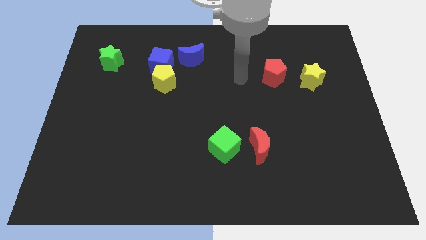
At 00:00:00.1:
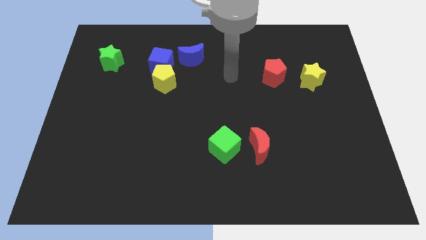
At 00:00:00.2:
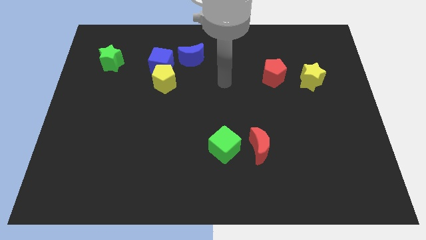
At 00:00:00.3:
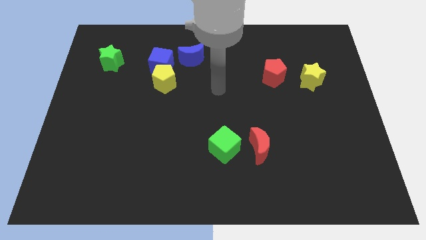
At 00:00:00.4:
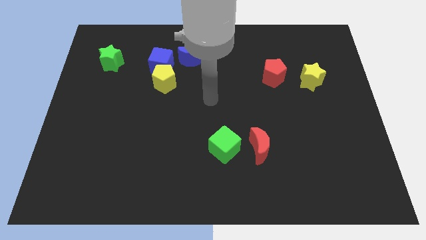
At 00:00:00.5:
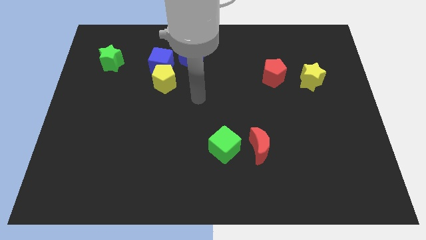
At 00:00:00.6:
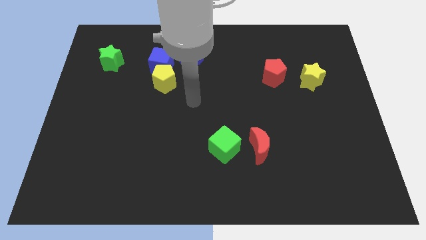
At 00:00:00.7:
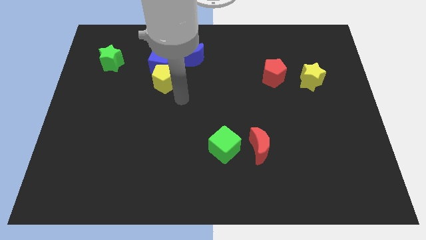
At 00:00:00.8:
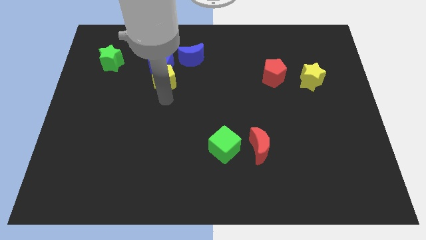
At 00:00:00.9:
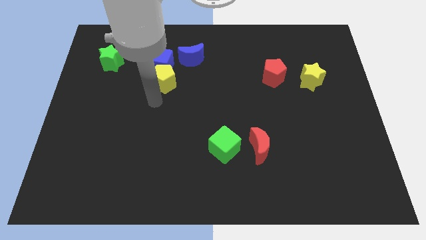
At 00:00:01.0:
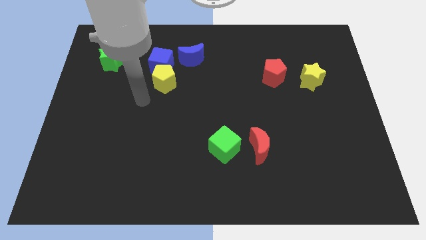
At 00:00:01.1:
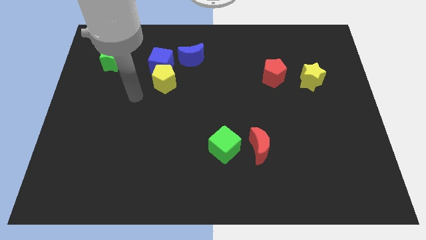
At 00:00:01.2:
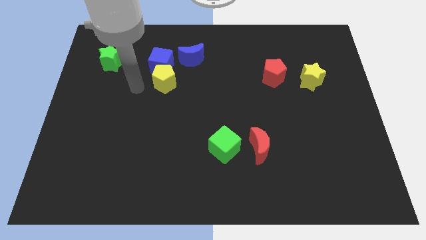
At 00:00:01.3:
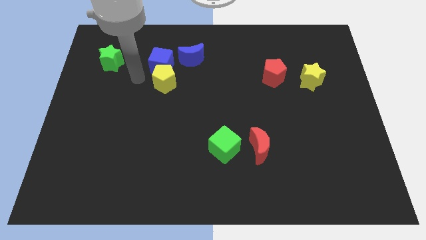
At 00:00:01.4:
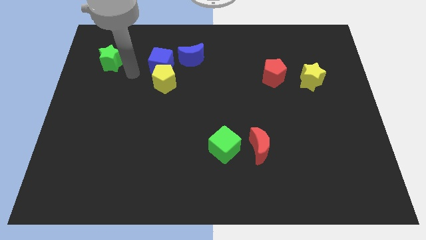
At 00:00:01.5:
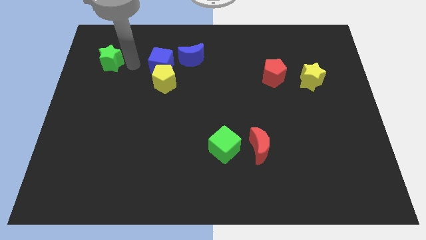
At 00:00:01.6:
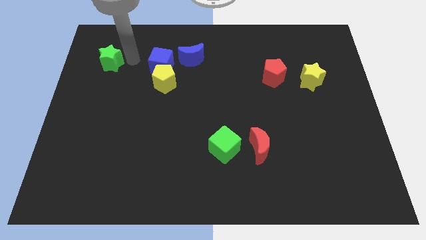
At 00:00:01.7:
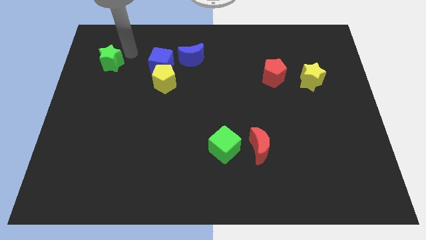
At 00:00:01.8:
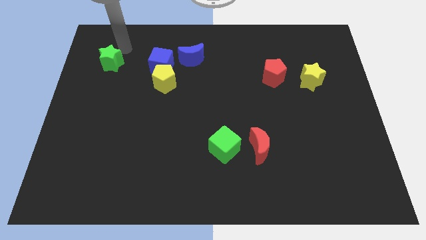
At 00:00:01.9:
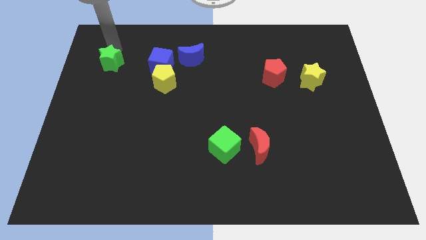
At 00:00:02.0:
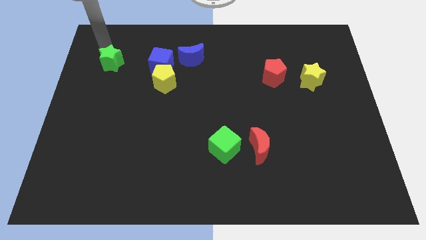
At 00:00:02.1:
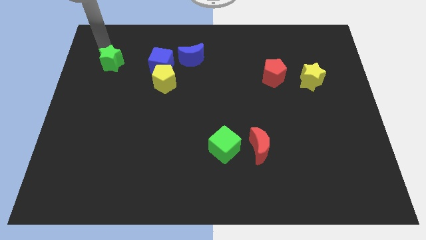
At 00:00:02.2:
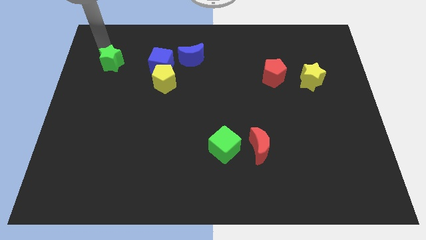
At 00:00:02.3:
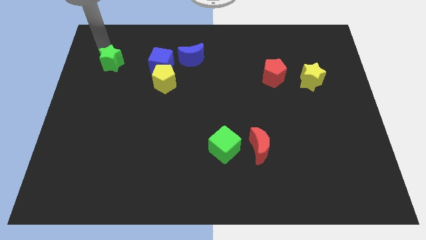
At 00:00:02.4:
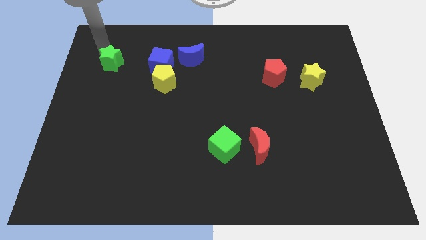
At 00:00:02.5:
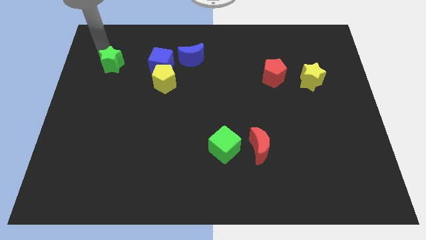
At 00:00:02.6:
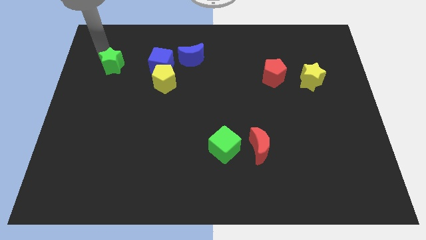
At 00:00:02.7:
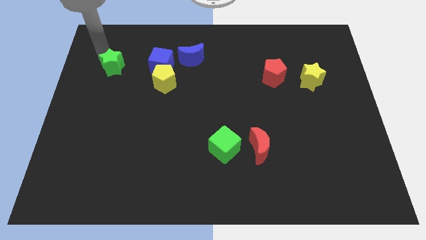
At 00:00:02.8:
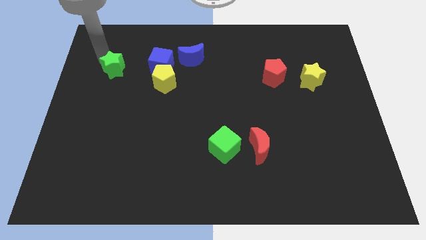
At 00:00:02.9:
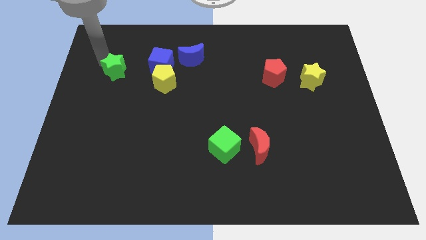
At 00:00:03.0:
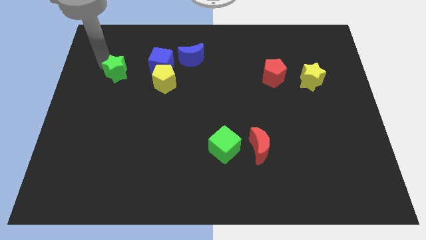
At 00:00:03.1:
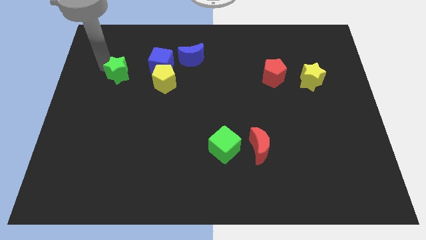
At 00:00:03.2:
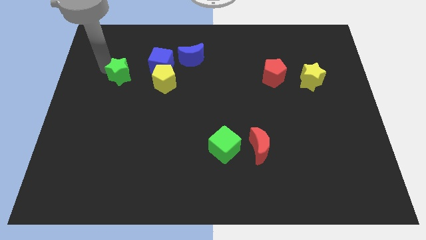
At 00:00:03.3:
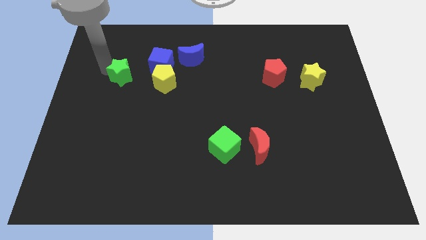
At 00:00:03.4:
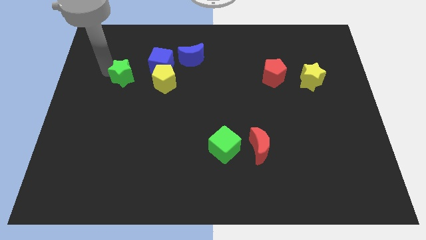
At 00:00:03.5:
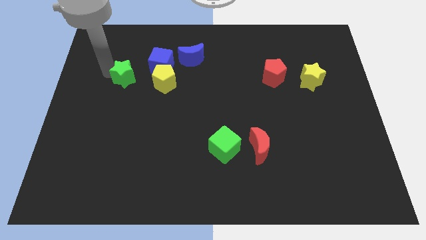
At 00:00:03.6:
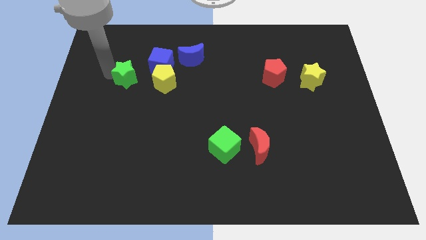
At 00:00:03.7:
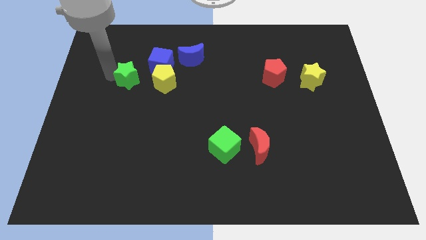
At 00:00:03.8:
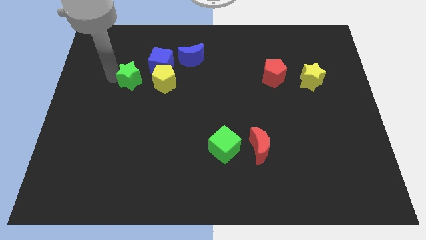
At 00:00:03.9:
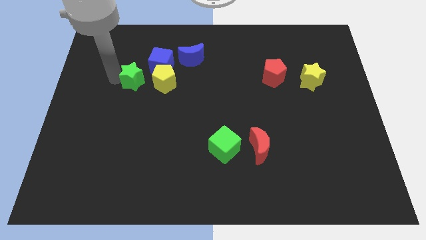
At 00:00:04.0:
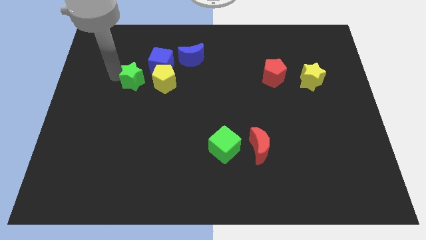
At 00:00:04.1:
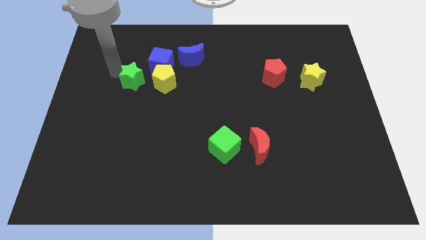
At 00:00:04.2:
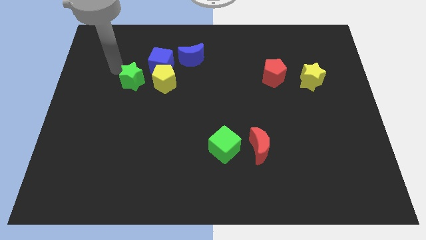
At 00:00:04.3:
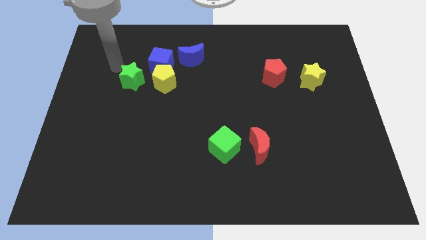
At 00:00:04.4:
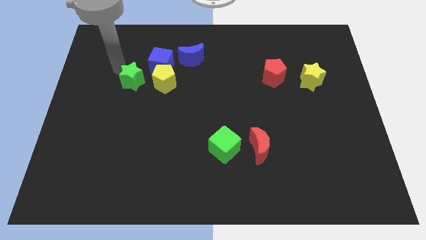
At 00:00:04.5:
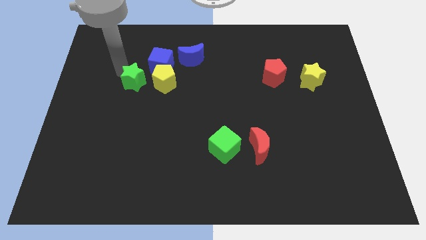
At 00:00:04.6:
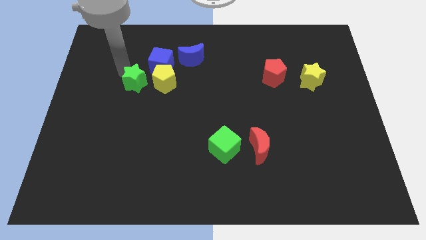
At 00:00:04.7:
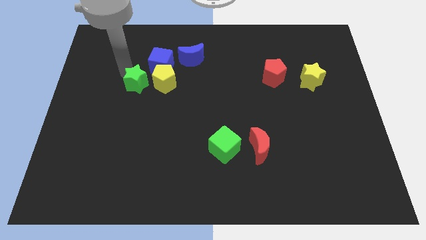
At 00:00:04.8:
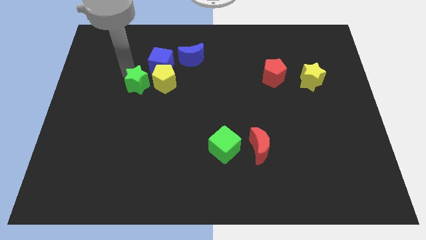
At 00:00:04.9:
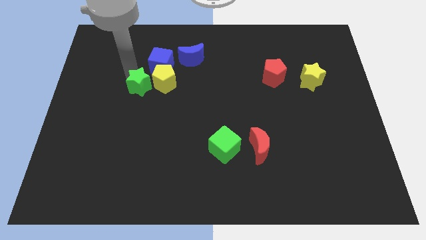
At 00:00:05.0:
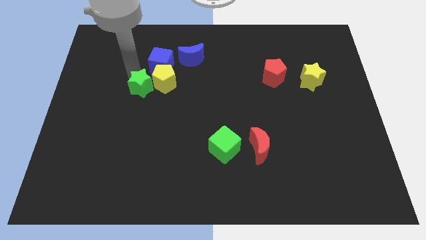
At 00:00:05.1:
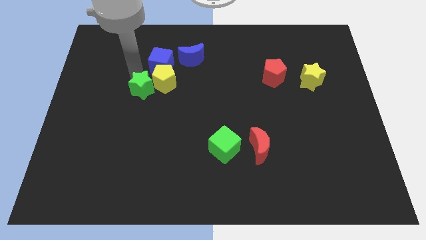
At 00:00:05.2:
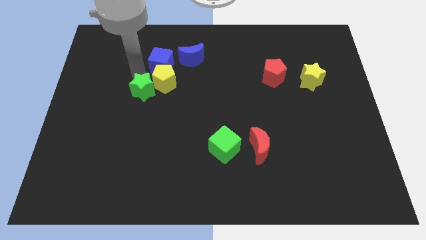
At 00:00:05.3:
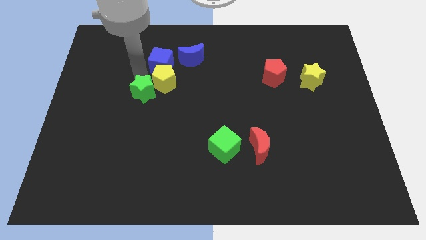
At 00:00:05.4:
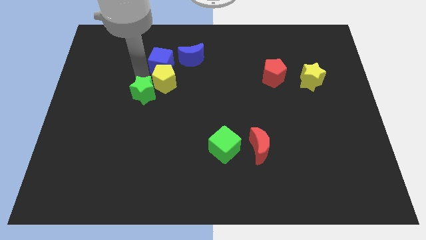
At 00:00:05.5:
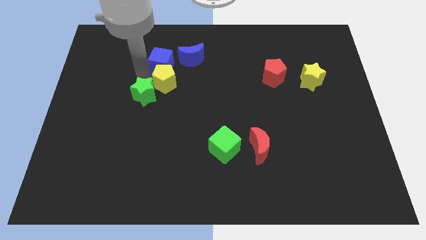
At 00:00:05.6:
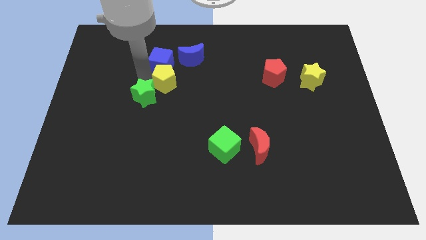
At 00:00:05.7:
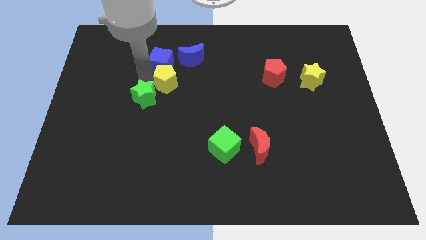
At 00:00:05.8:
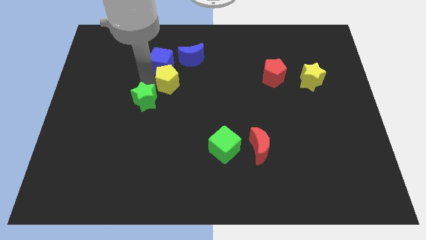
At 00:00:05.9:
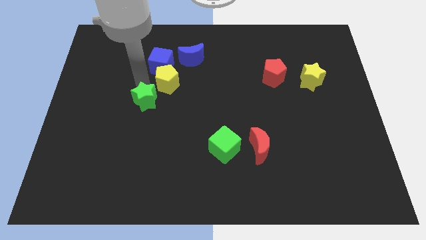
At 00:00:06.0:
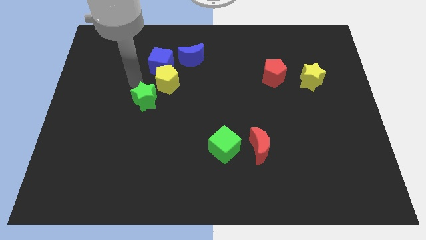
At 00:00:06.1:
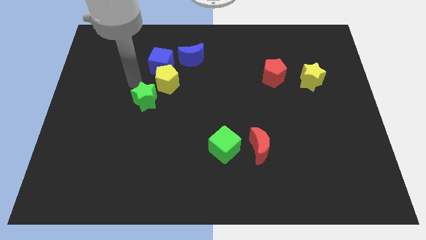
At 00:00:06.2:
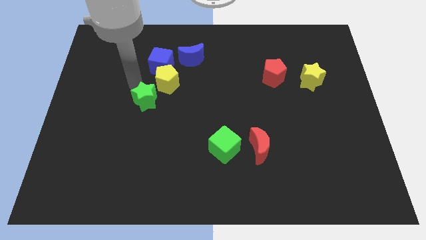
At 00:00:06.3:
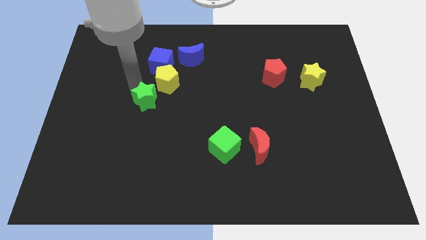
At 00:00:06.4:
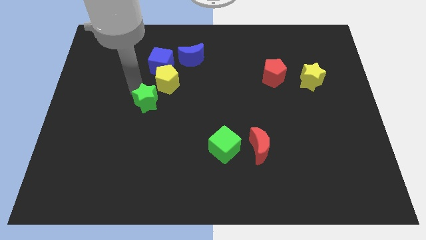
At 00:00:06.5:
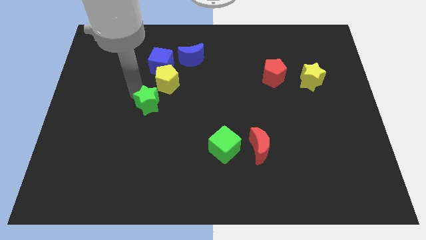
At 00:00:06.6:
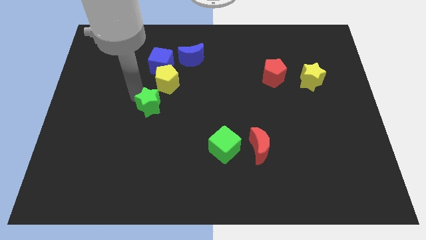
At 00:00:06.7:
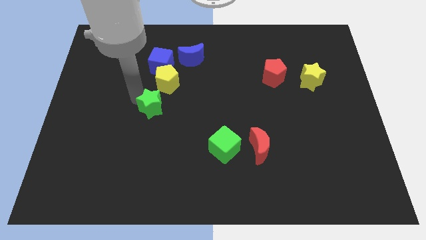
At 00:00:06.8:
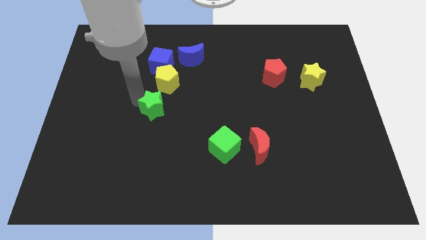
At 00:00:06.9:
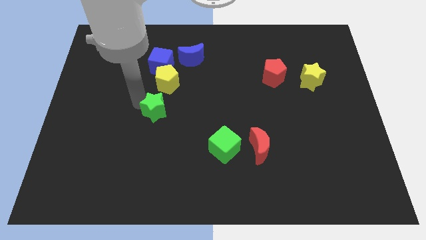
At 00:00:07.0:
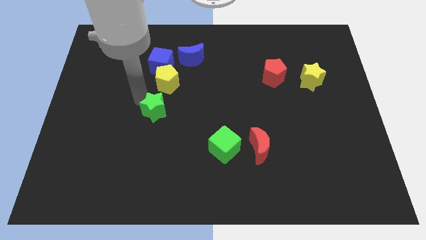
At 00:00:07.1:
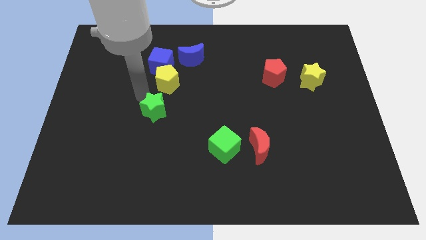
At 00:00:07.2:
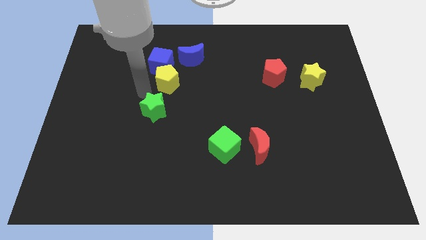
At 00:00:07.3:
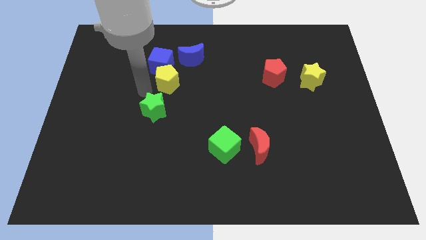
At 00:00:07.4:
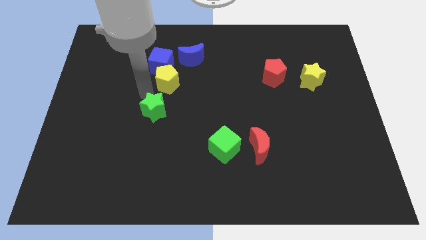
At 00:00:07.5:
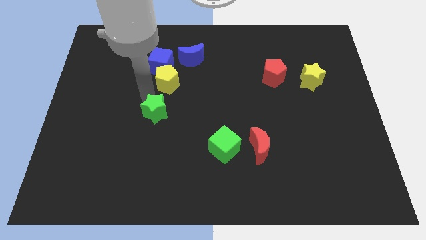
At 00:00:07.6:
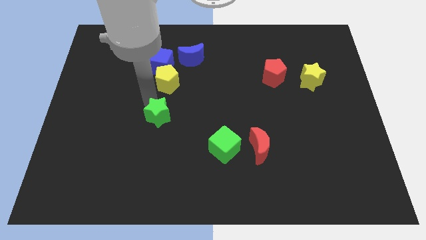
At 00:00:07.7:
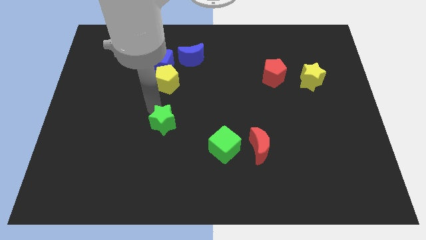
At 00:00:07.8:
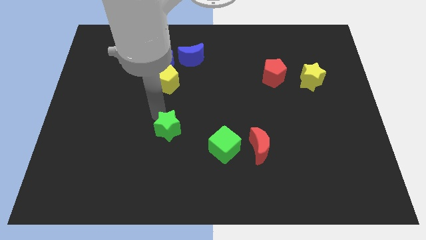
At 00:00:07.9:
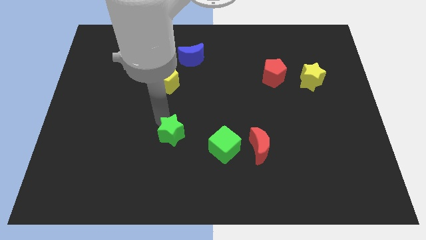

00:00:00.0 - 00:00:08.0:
push the green star left of the green cube
